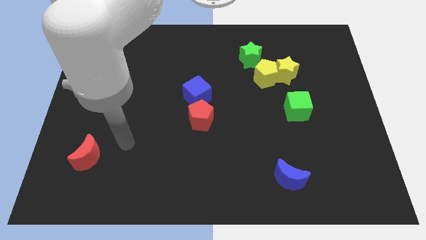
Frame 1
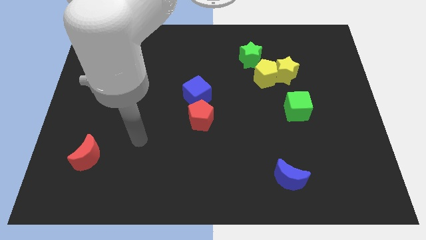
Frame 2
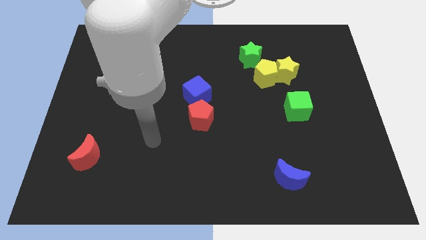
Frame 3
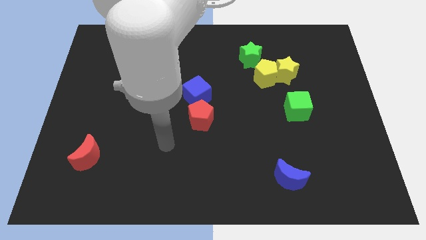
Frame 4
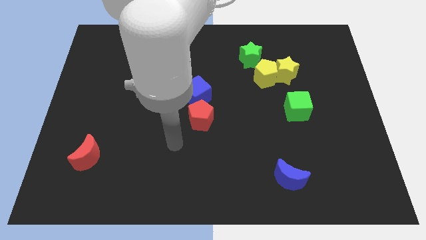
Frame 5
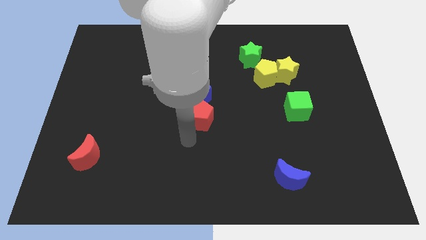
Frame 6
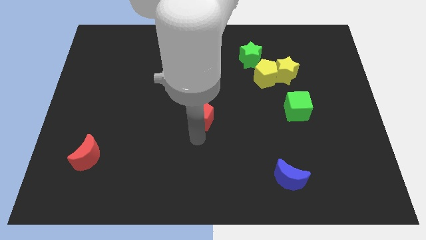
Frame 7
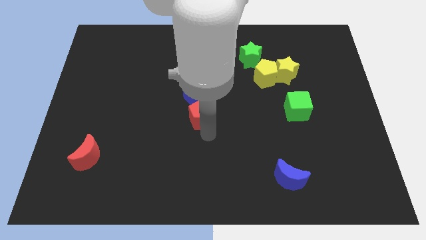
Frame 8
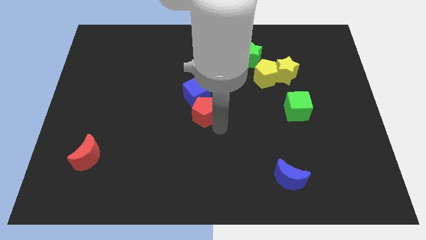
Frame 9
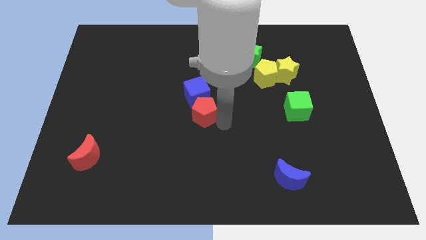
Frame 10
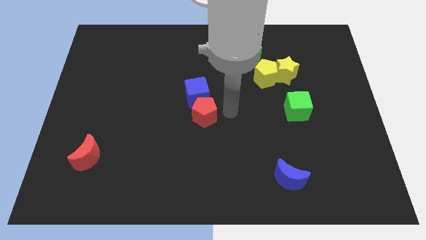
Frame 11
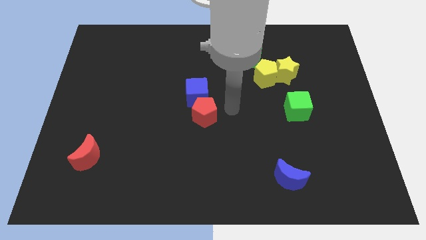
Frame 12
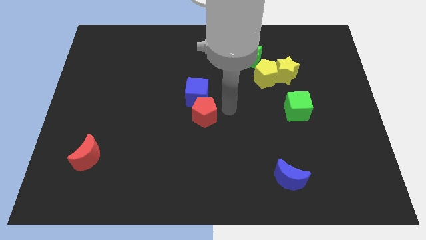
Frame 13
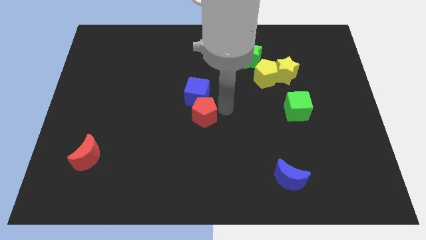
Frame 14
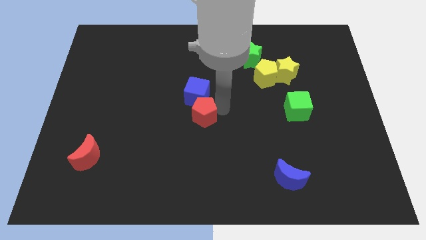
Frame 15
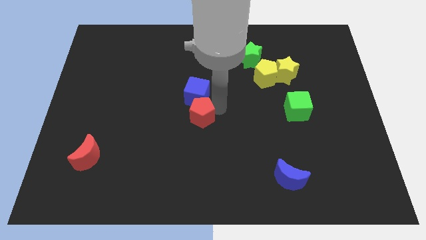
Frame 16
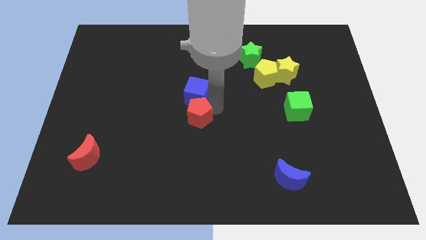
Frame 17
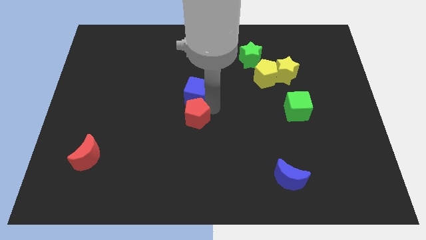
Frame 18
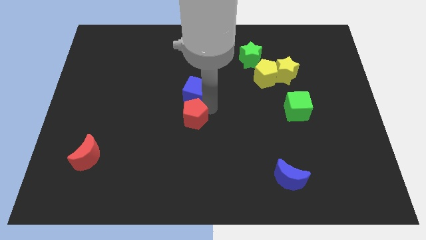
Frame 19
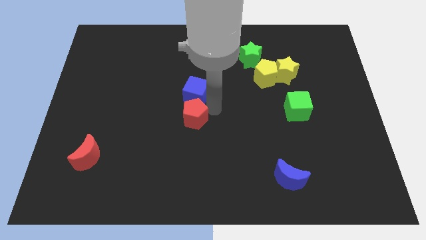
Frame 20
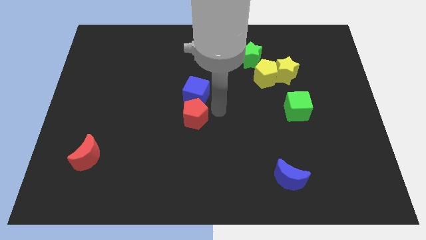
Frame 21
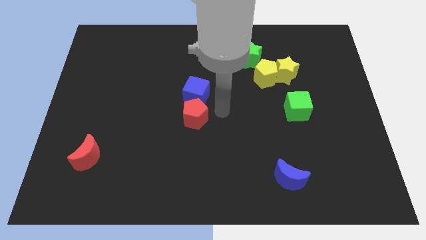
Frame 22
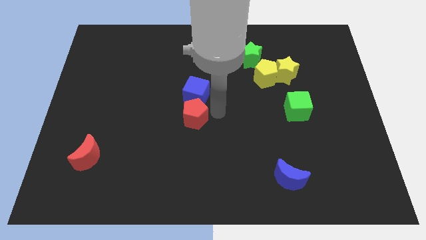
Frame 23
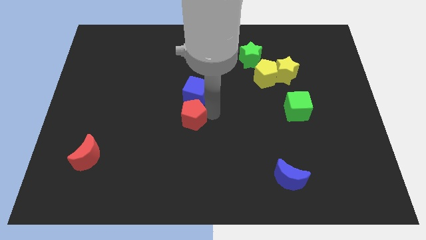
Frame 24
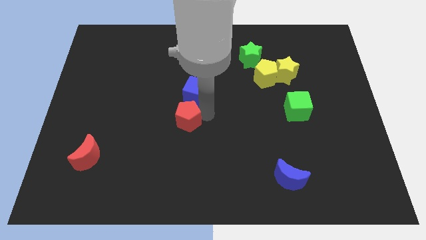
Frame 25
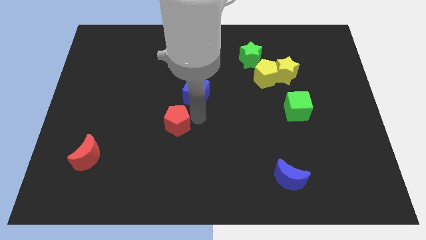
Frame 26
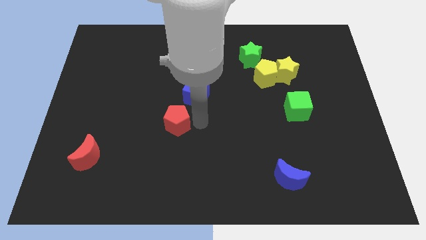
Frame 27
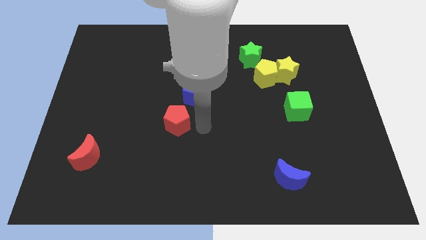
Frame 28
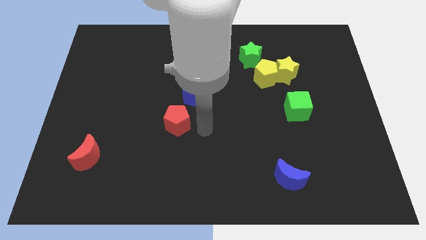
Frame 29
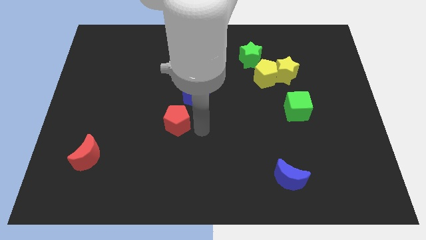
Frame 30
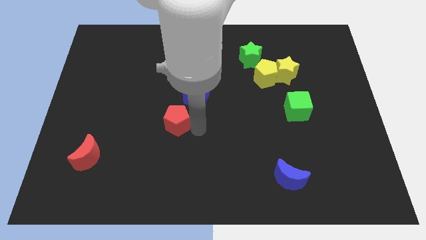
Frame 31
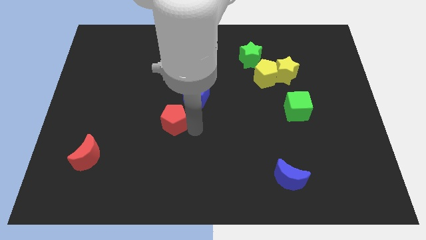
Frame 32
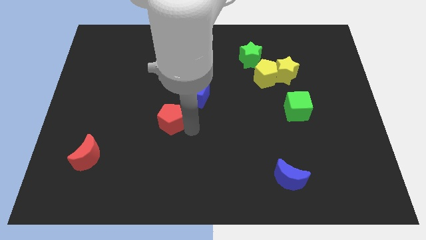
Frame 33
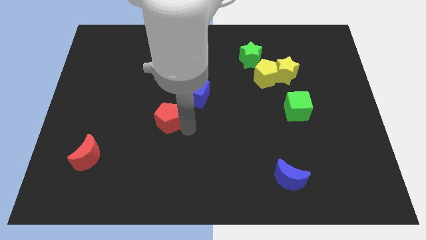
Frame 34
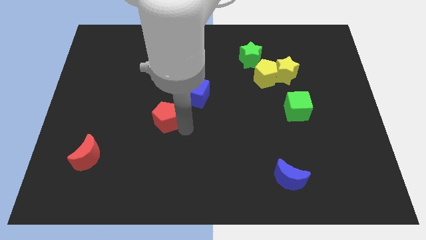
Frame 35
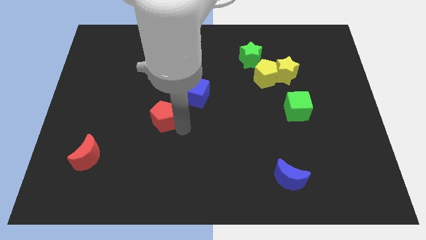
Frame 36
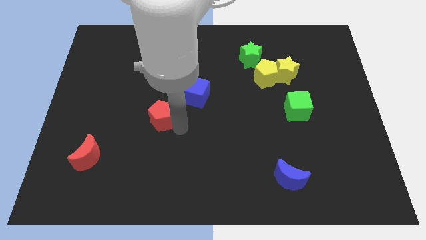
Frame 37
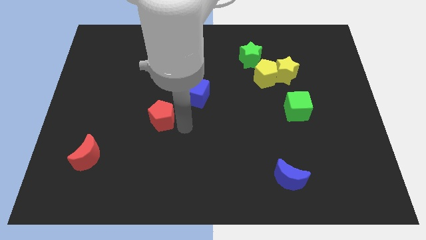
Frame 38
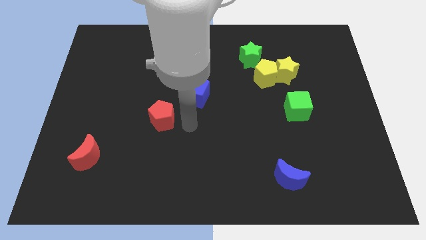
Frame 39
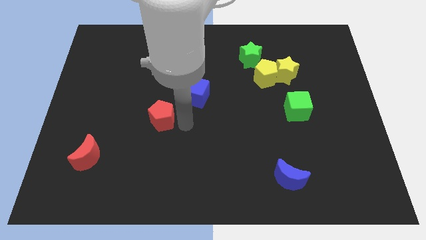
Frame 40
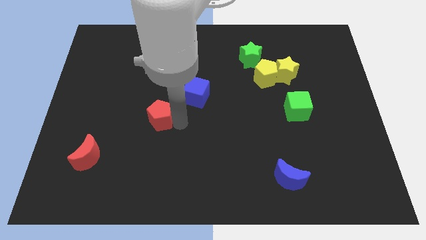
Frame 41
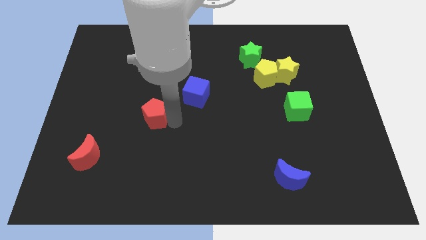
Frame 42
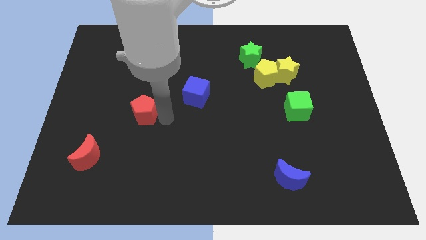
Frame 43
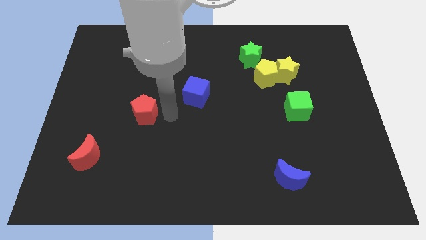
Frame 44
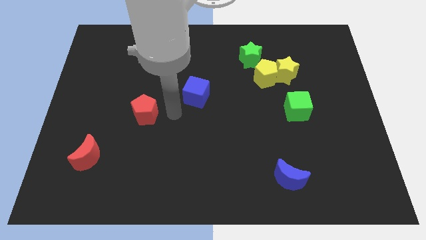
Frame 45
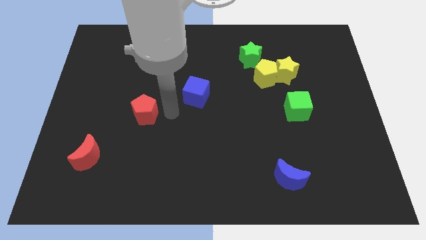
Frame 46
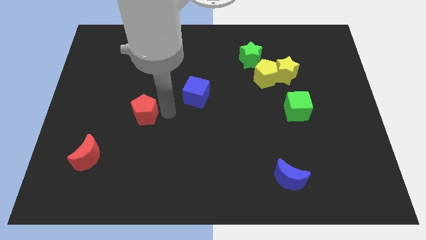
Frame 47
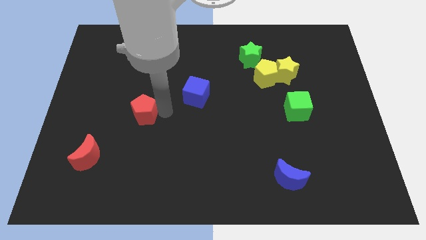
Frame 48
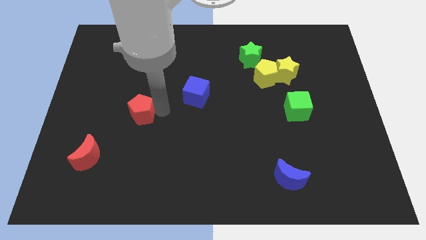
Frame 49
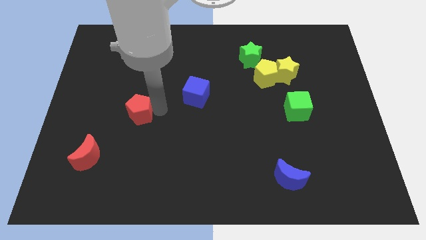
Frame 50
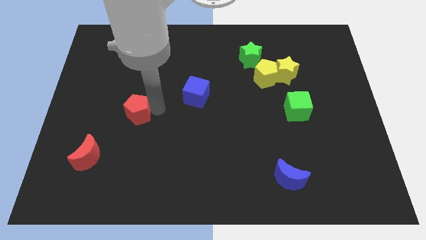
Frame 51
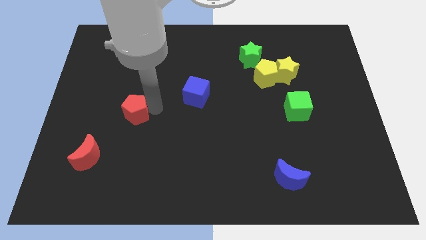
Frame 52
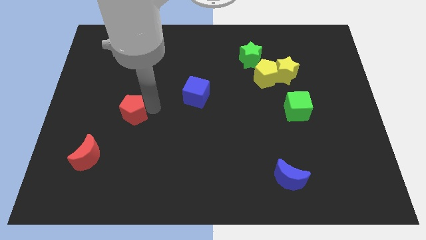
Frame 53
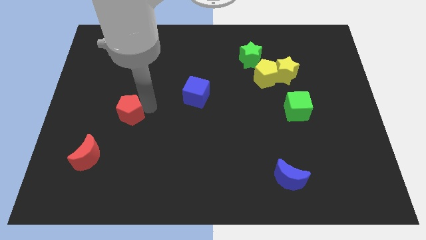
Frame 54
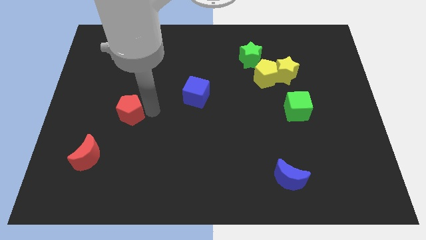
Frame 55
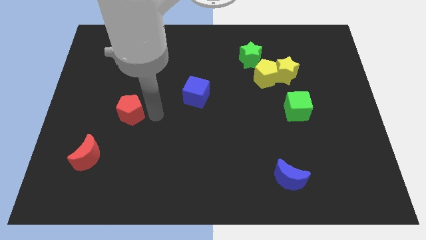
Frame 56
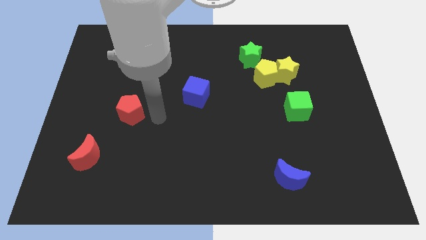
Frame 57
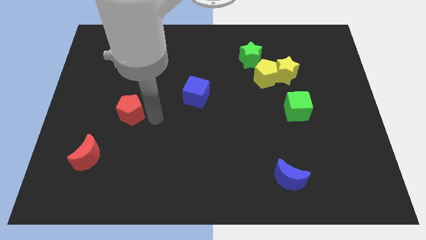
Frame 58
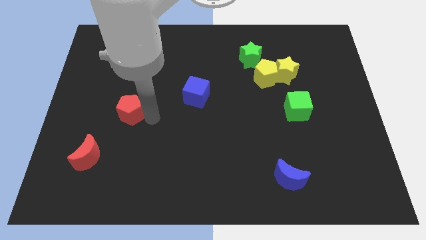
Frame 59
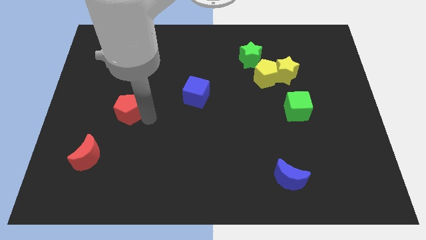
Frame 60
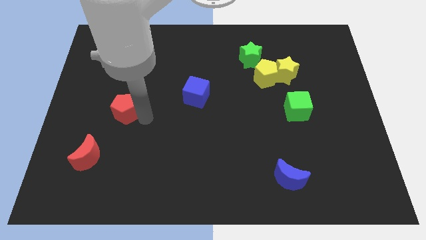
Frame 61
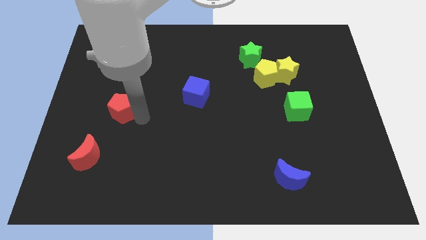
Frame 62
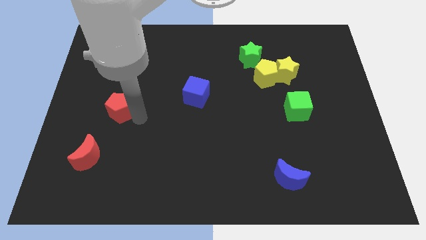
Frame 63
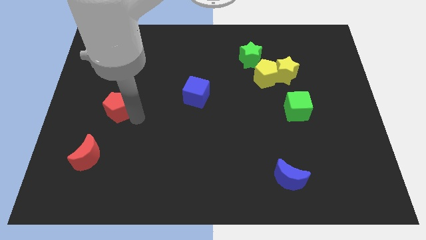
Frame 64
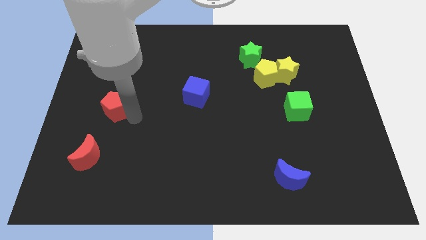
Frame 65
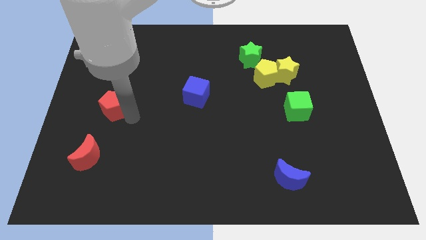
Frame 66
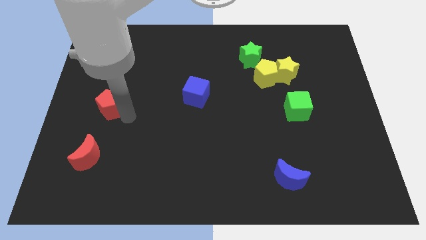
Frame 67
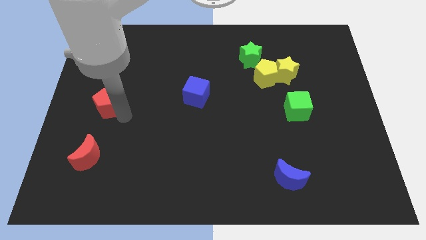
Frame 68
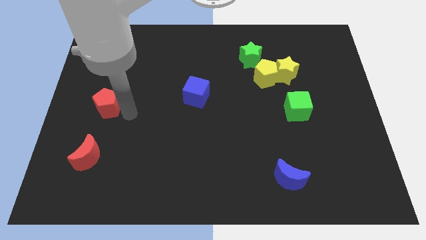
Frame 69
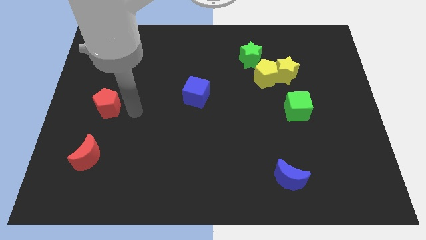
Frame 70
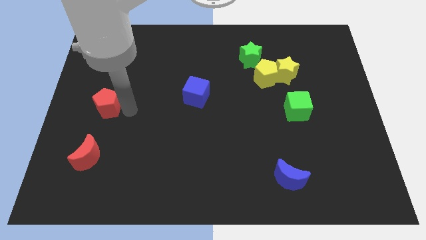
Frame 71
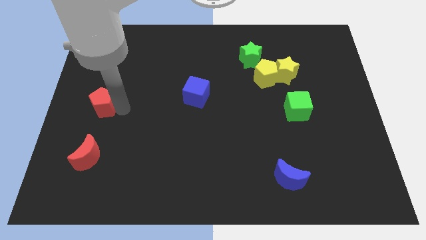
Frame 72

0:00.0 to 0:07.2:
move the red pentagon to the left side
